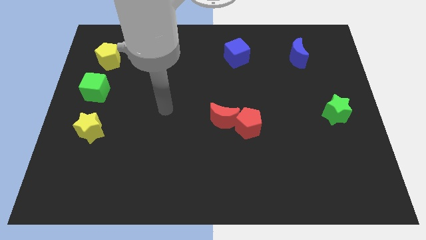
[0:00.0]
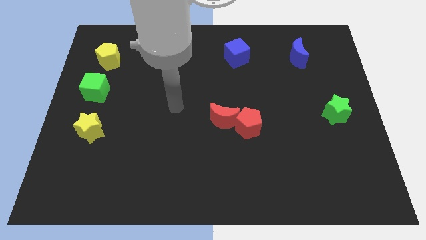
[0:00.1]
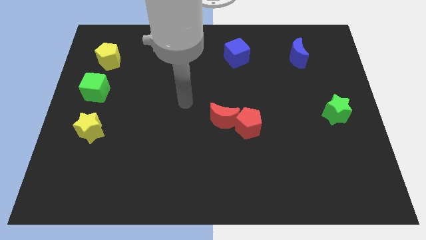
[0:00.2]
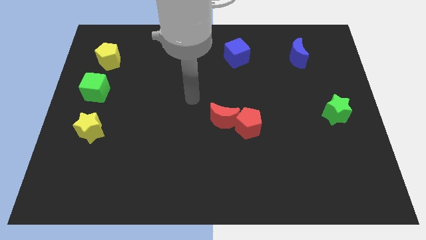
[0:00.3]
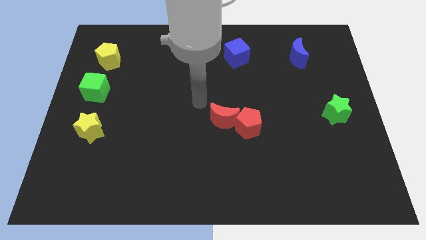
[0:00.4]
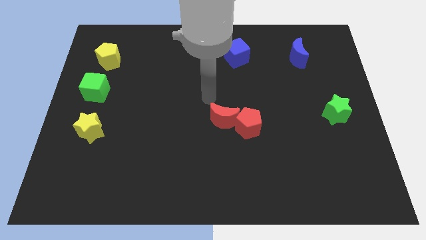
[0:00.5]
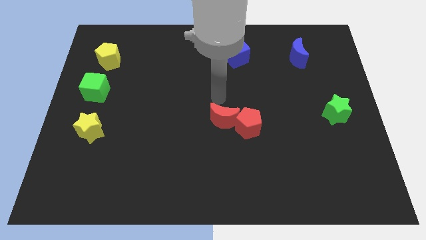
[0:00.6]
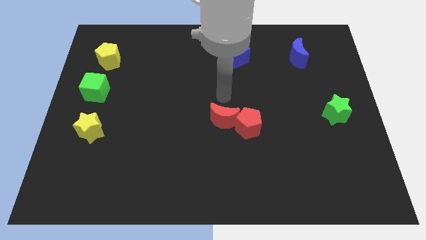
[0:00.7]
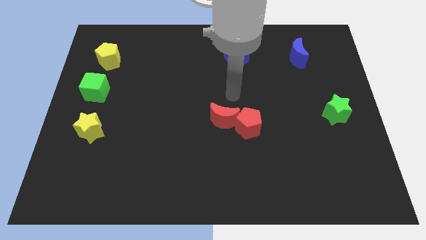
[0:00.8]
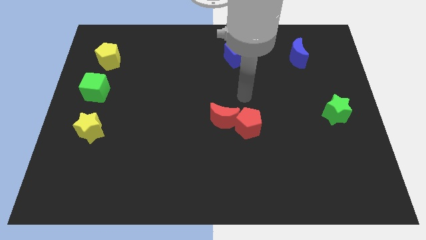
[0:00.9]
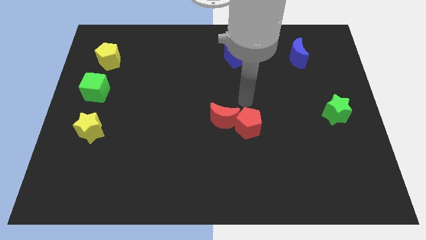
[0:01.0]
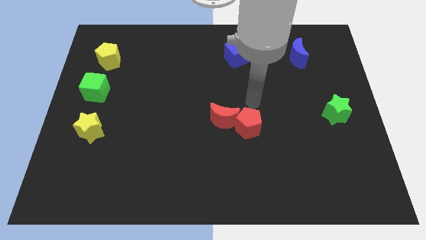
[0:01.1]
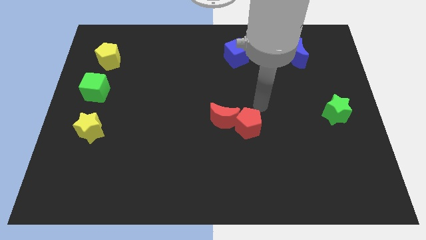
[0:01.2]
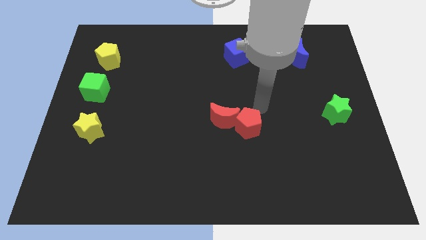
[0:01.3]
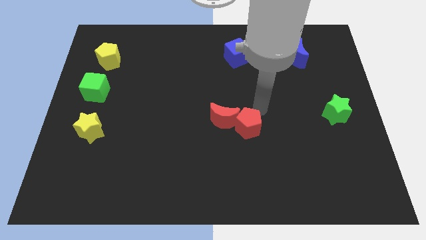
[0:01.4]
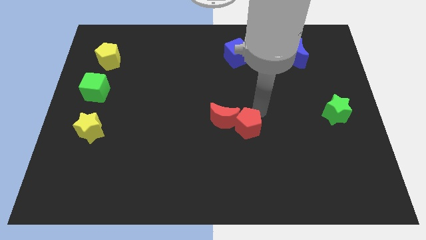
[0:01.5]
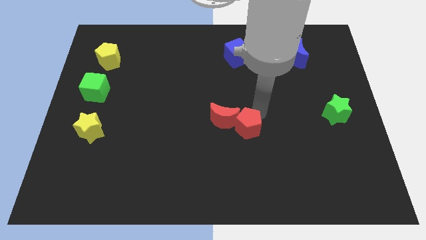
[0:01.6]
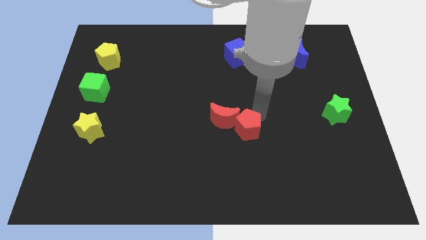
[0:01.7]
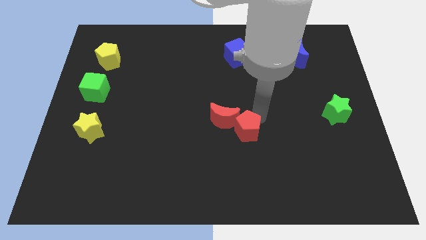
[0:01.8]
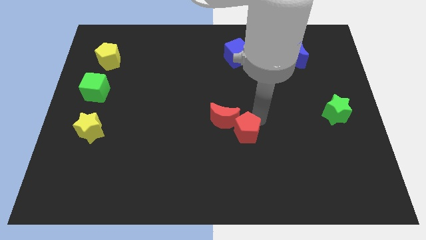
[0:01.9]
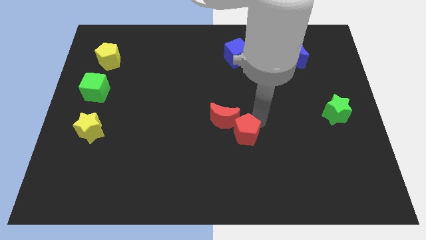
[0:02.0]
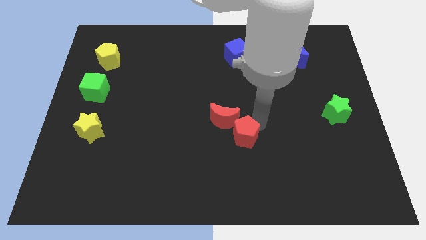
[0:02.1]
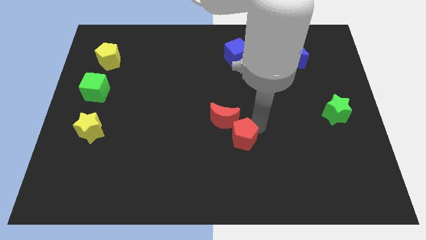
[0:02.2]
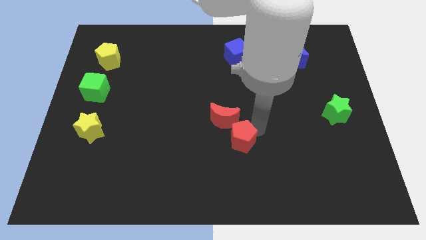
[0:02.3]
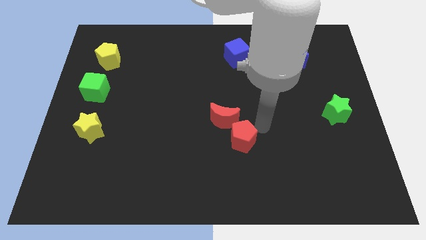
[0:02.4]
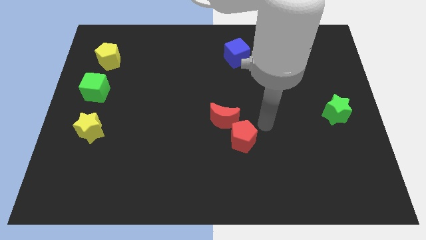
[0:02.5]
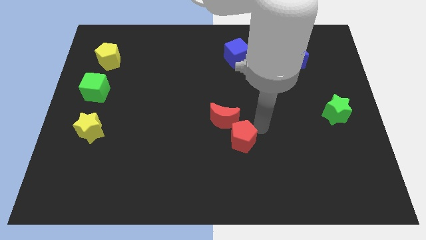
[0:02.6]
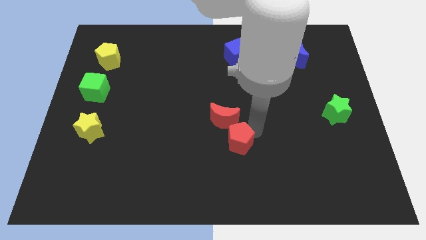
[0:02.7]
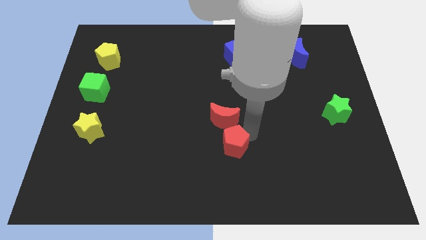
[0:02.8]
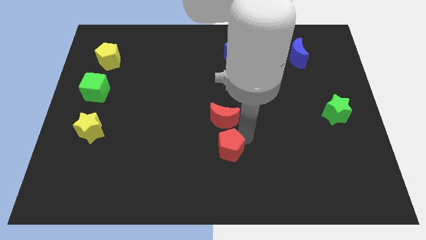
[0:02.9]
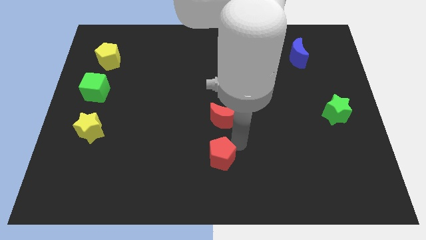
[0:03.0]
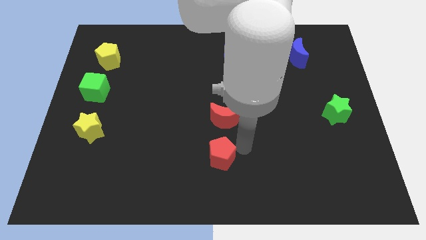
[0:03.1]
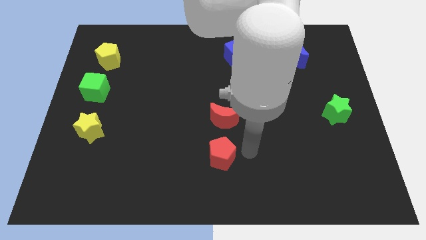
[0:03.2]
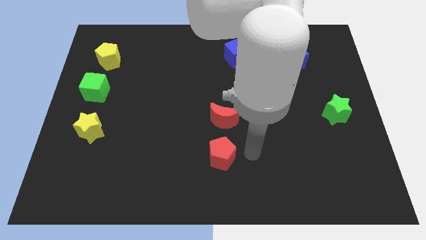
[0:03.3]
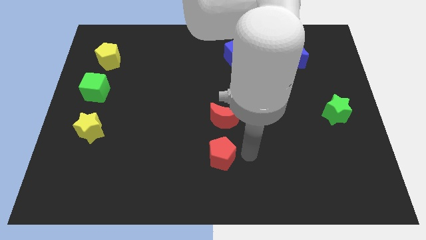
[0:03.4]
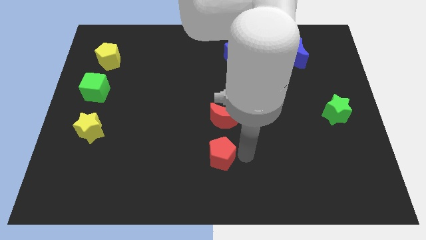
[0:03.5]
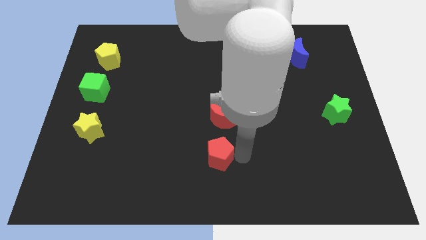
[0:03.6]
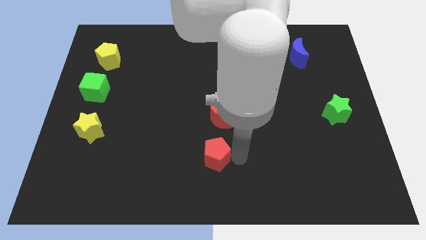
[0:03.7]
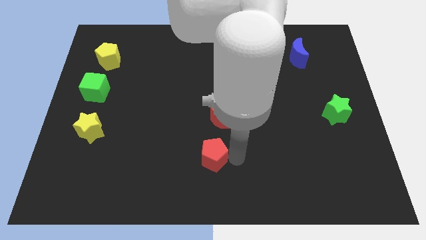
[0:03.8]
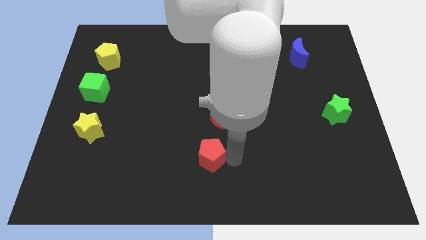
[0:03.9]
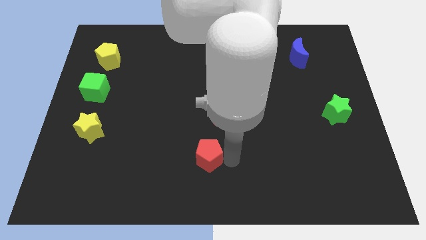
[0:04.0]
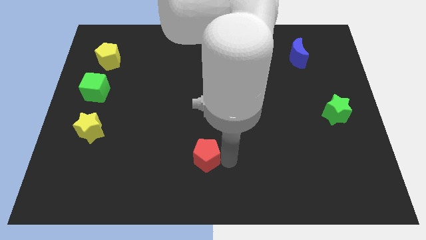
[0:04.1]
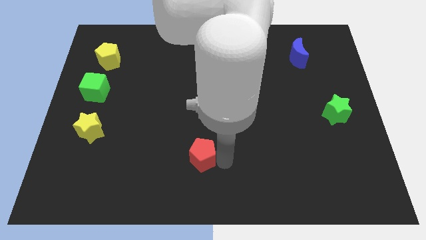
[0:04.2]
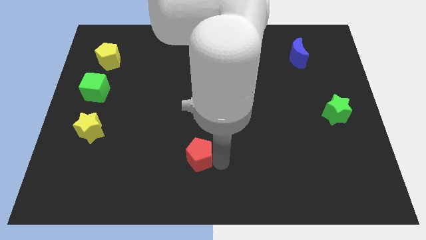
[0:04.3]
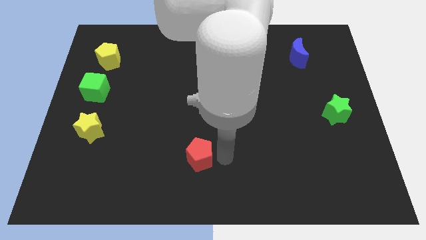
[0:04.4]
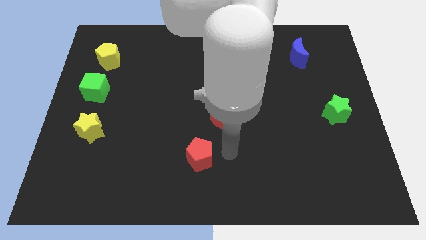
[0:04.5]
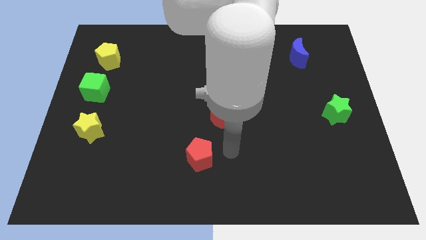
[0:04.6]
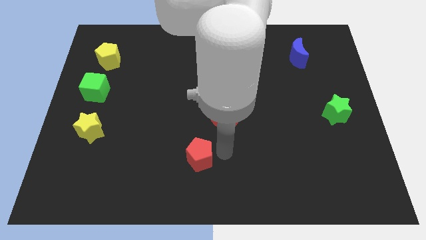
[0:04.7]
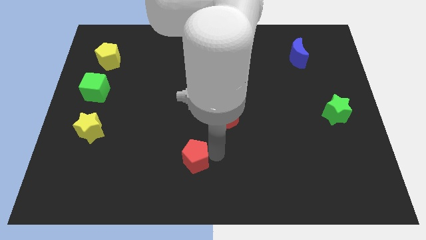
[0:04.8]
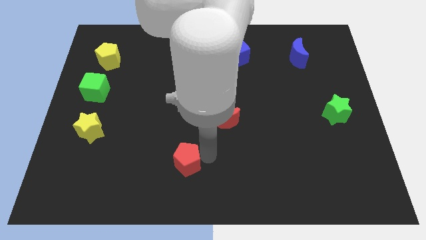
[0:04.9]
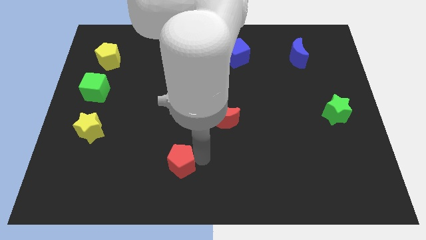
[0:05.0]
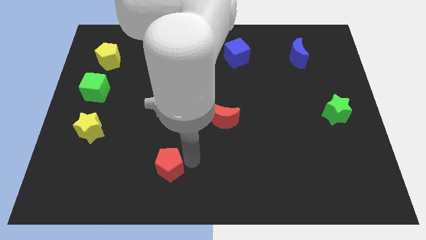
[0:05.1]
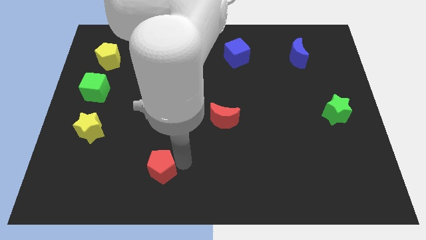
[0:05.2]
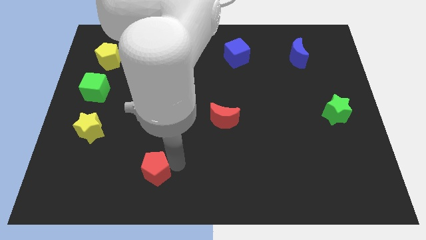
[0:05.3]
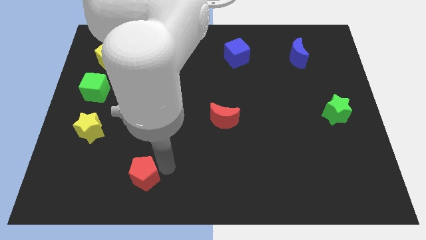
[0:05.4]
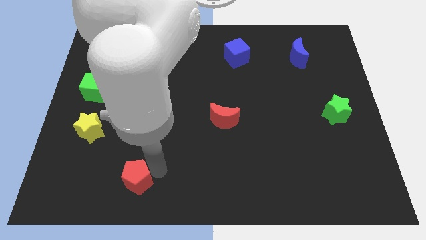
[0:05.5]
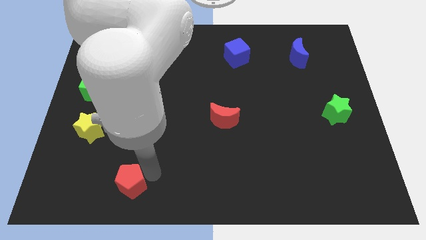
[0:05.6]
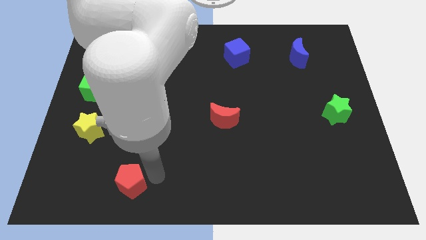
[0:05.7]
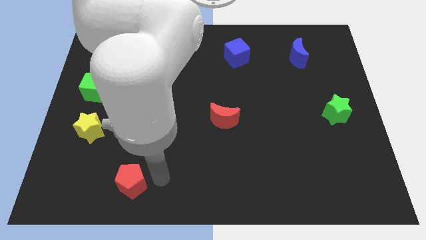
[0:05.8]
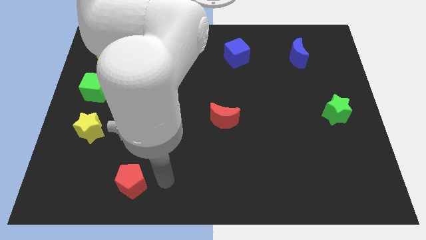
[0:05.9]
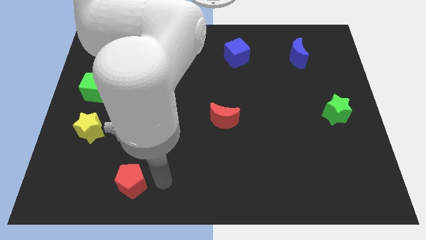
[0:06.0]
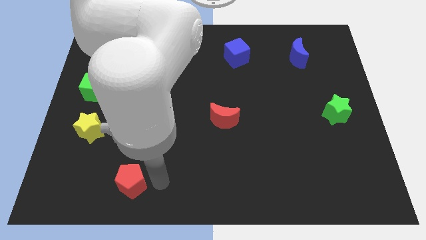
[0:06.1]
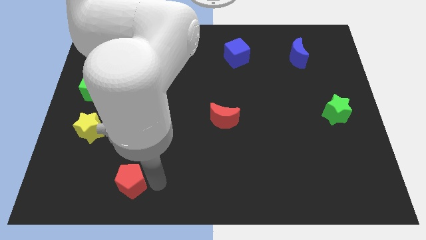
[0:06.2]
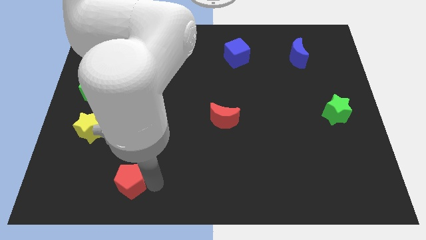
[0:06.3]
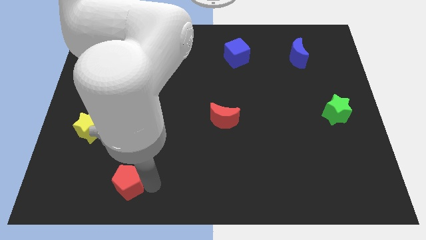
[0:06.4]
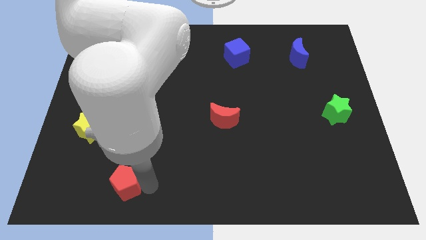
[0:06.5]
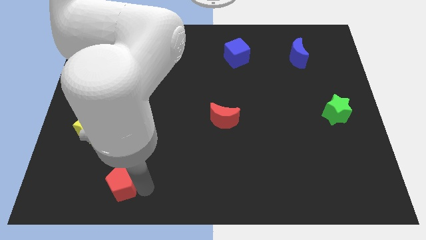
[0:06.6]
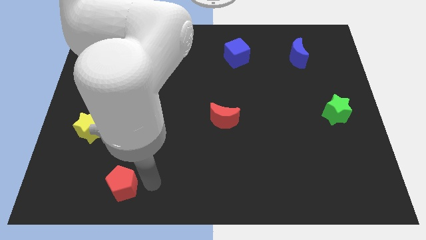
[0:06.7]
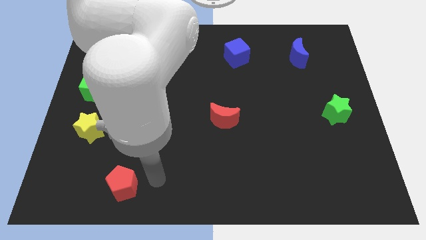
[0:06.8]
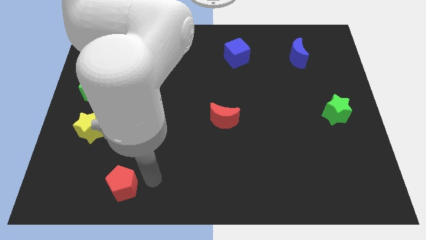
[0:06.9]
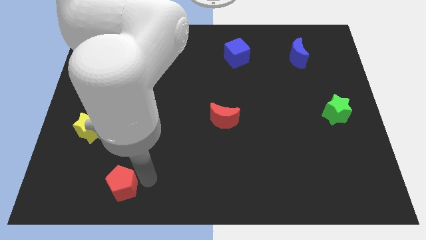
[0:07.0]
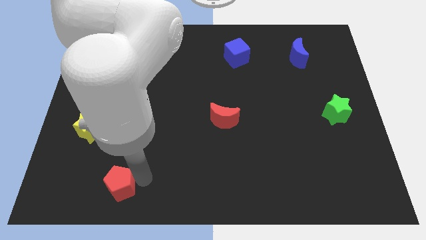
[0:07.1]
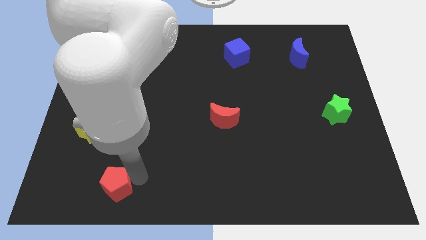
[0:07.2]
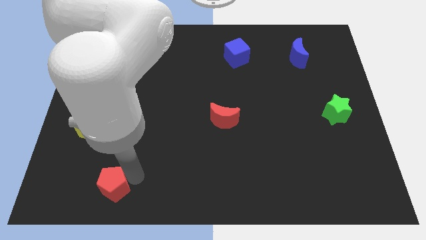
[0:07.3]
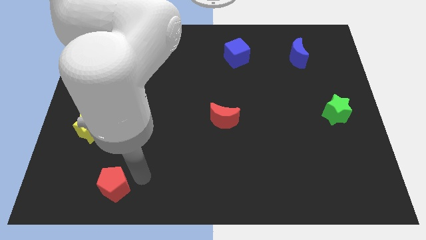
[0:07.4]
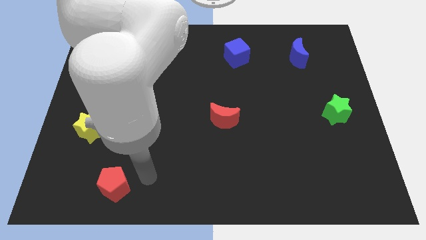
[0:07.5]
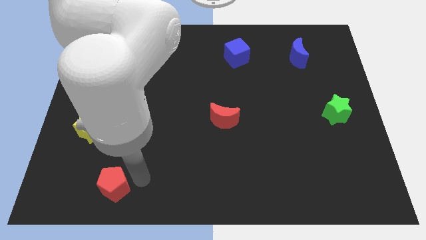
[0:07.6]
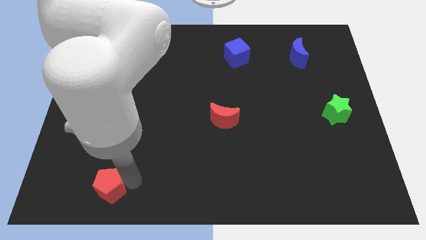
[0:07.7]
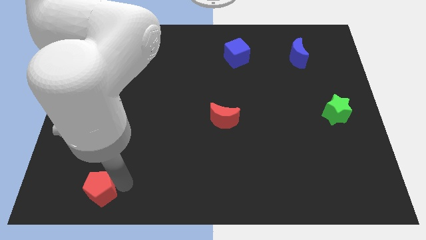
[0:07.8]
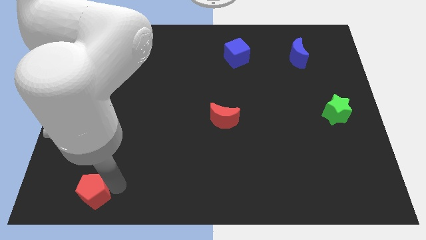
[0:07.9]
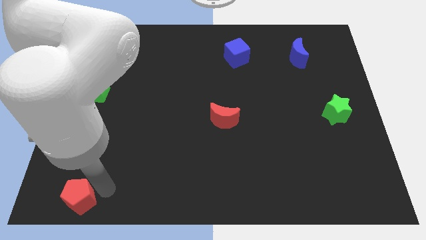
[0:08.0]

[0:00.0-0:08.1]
move the red pentagon to the bottom left corner
